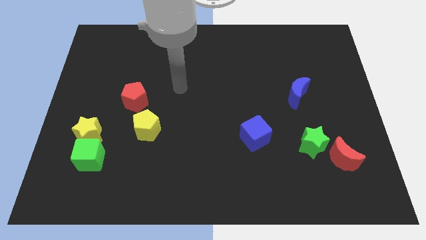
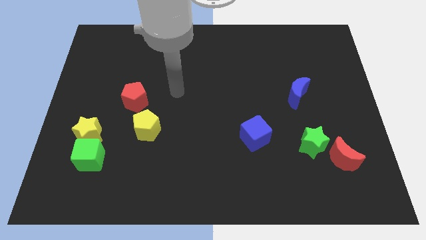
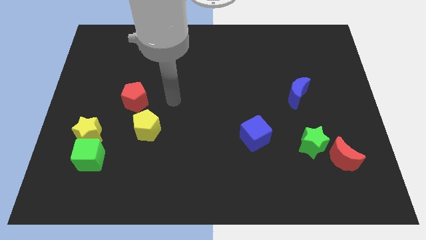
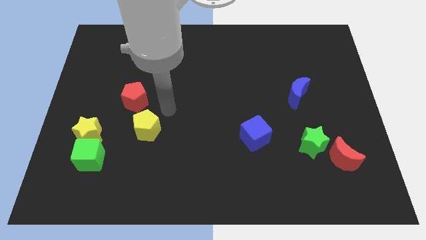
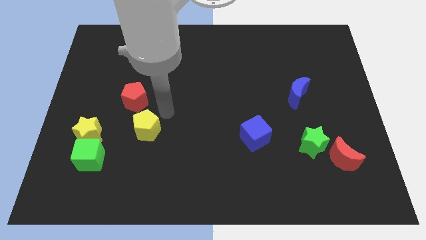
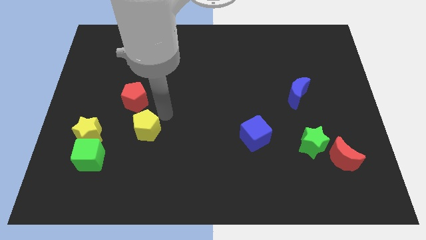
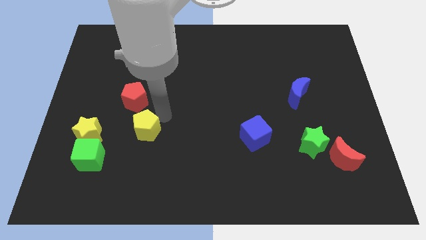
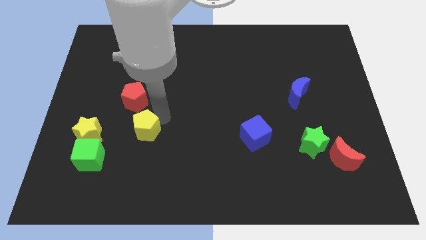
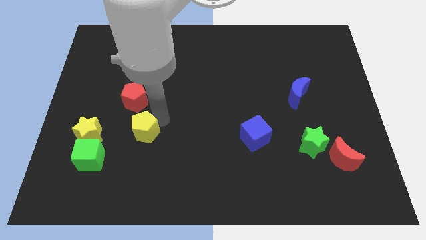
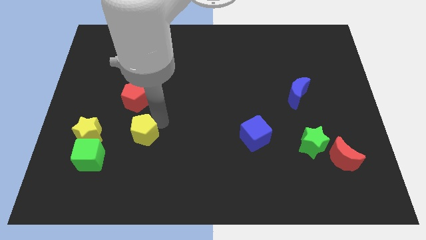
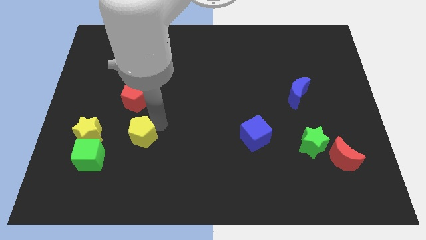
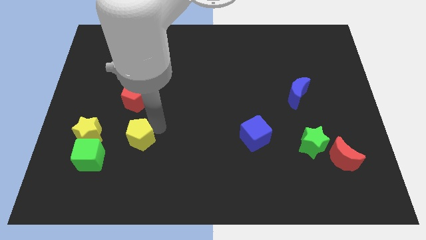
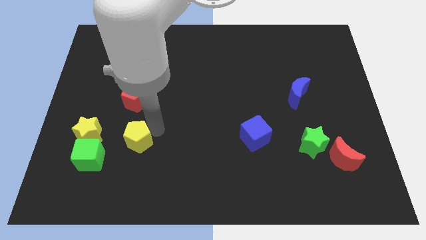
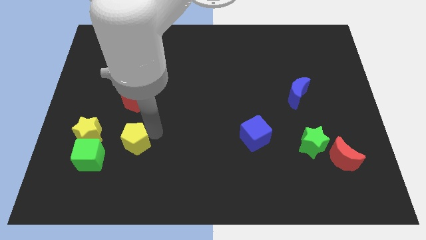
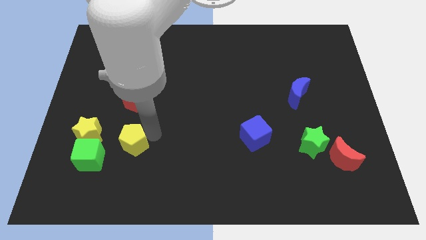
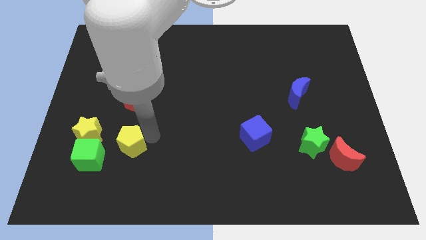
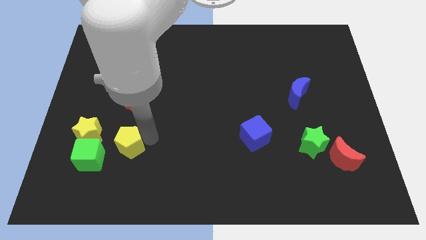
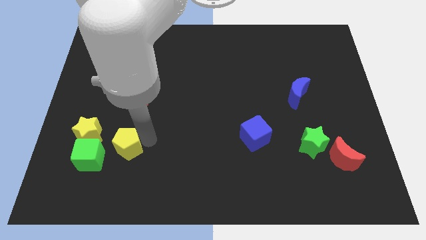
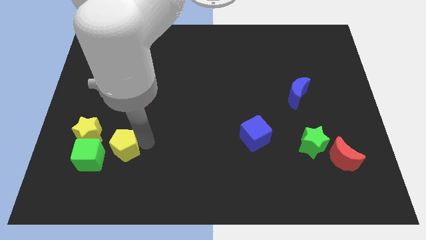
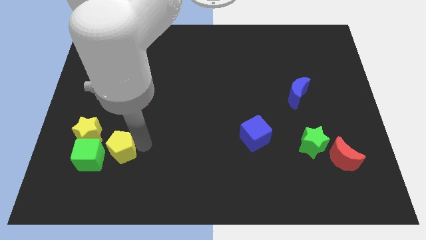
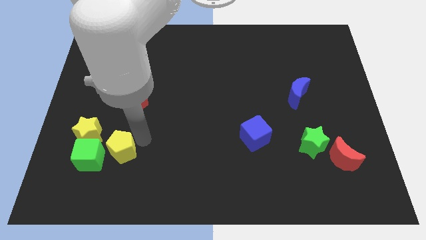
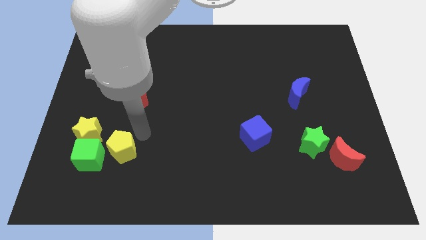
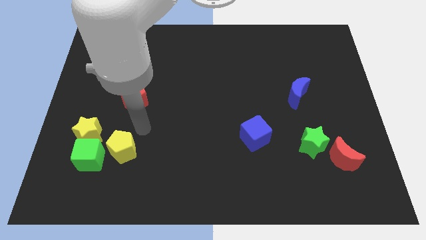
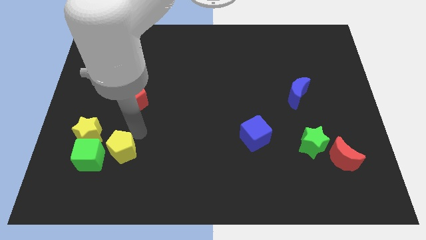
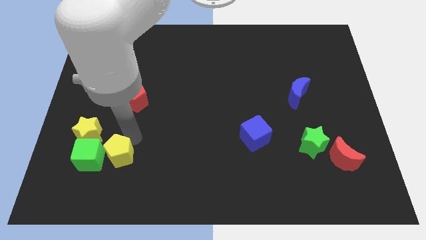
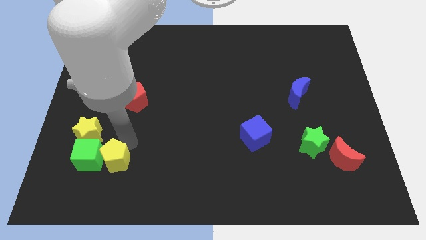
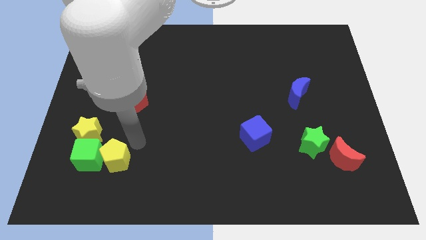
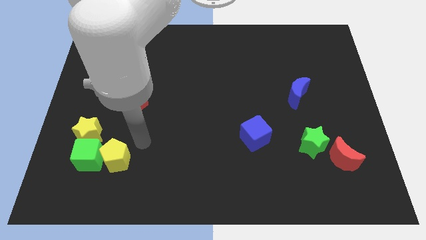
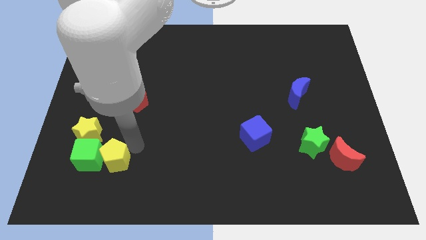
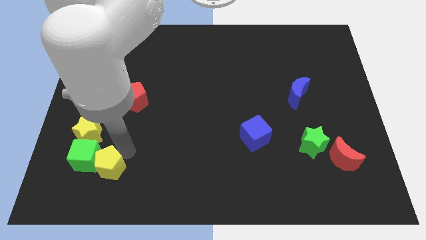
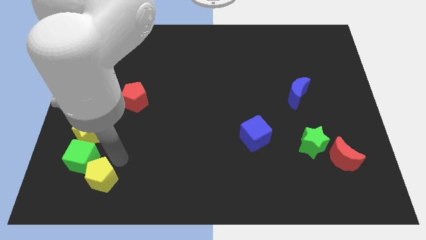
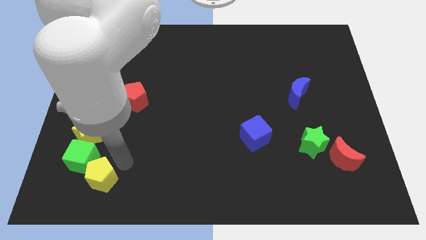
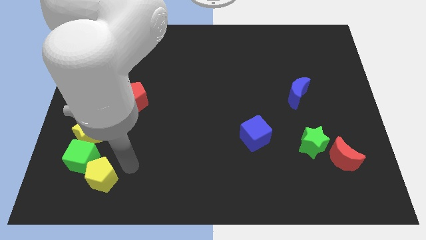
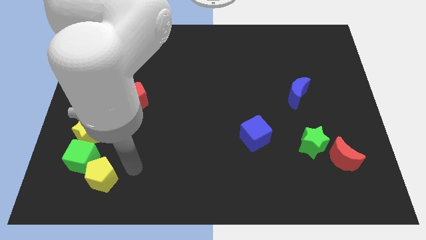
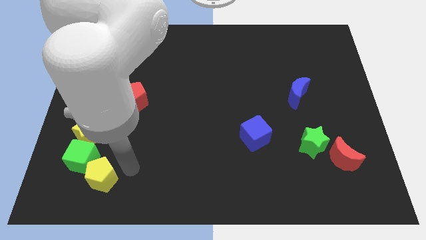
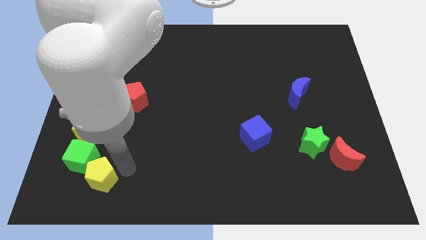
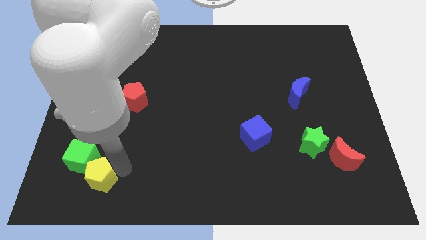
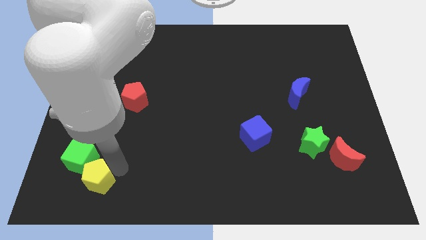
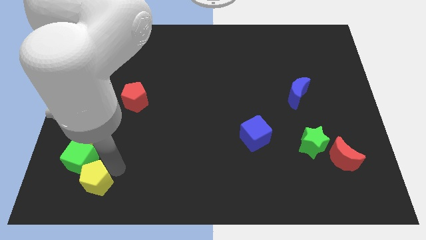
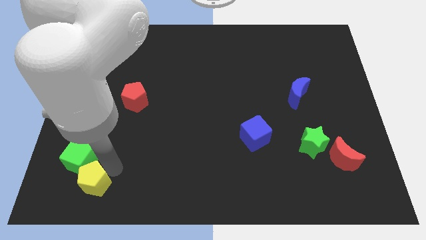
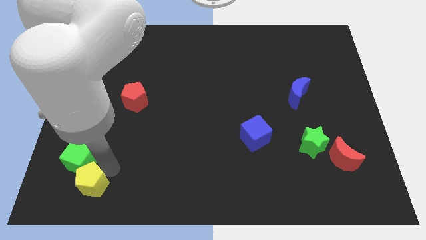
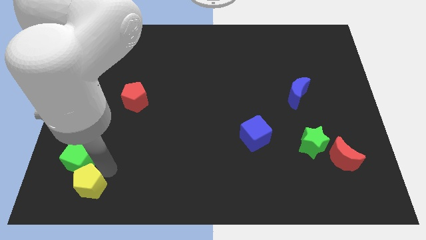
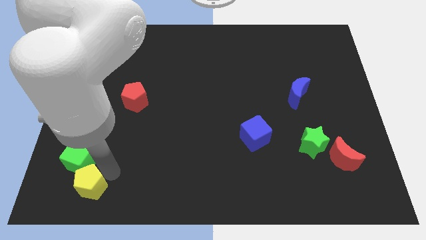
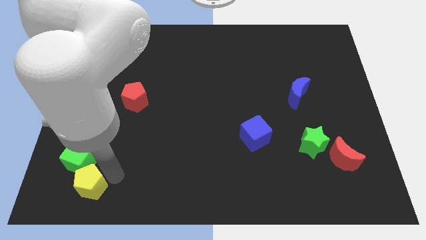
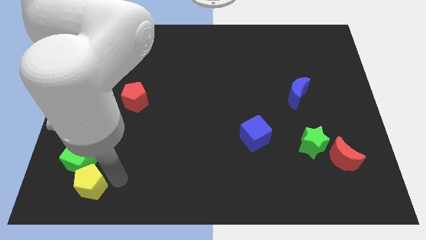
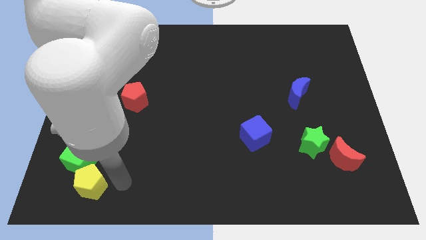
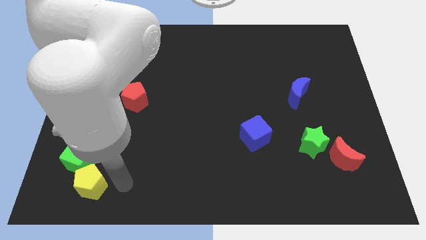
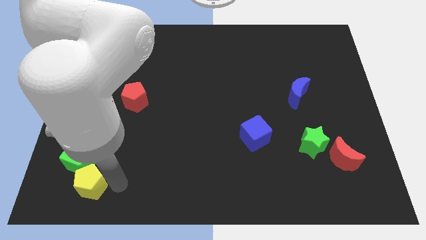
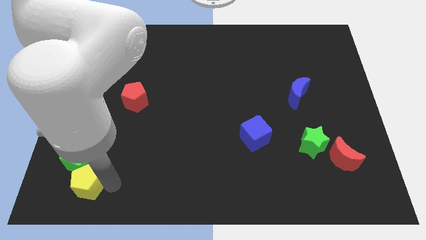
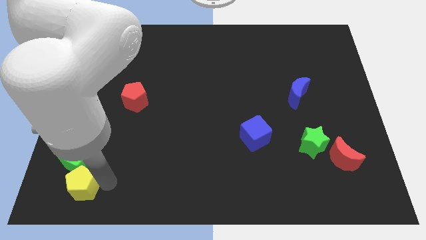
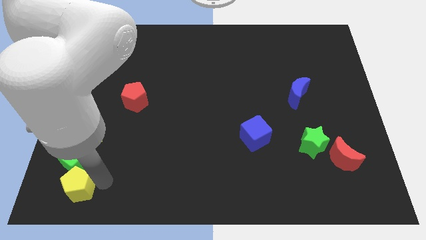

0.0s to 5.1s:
move the yellow pentagon to the bottom left corner

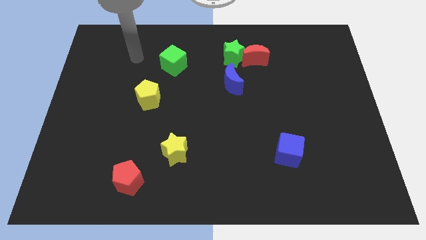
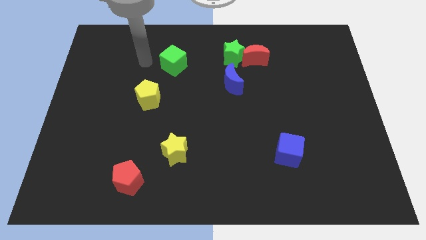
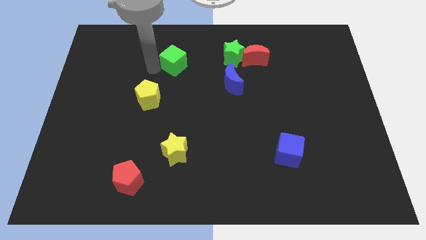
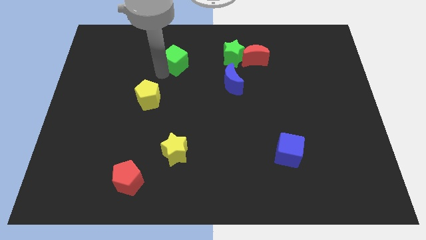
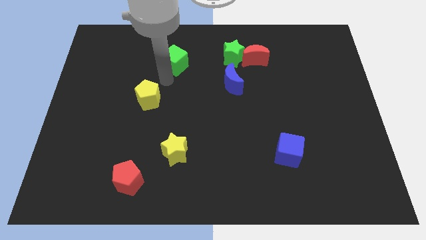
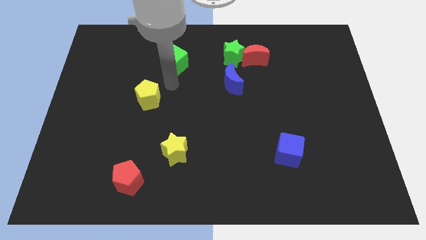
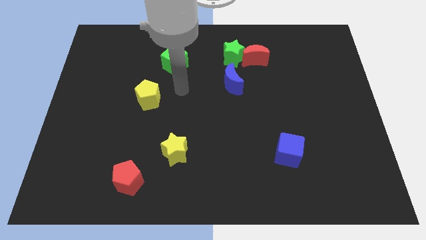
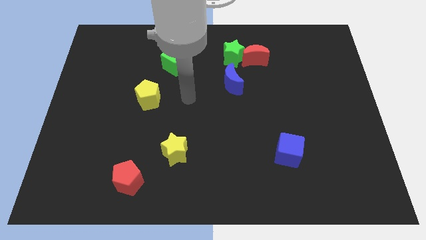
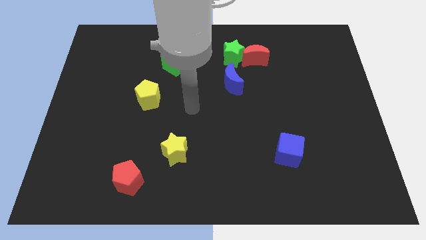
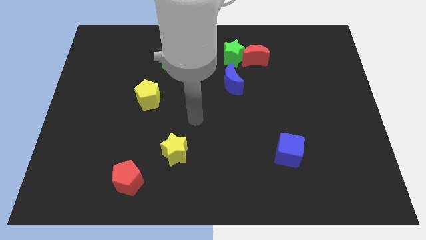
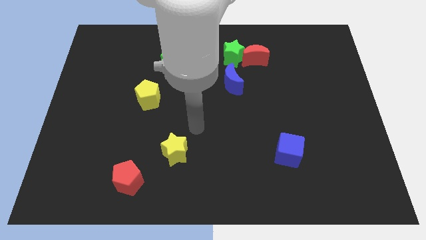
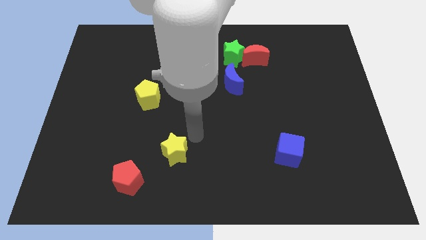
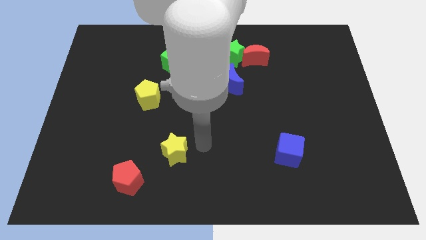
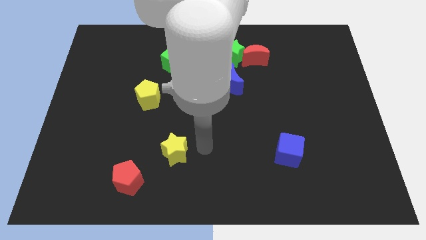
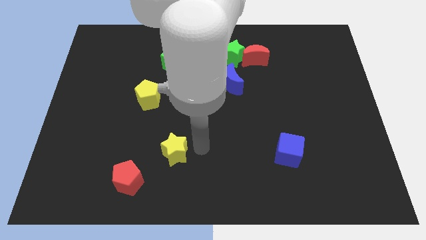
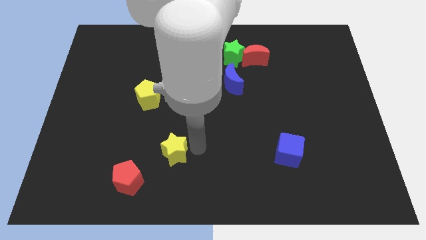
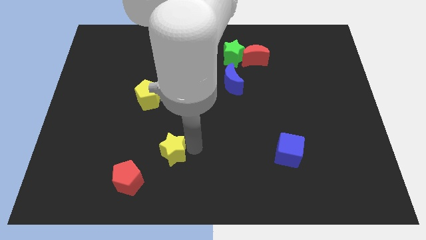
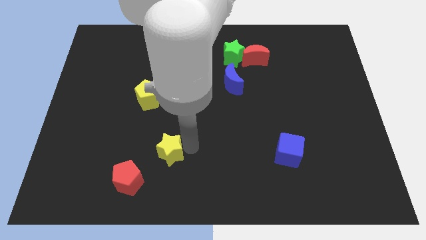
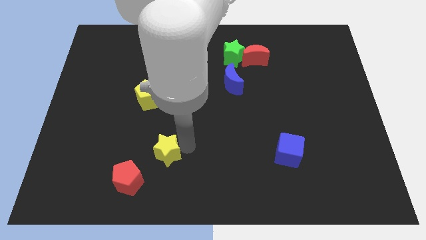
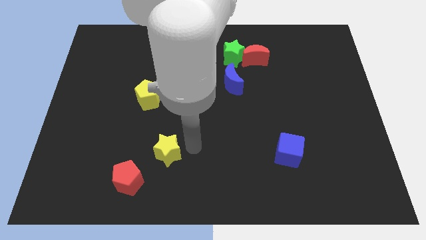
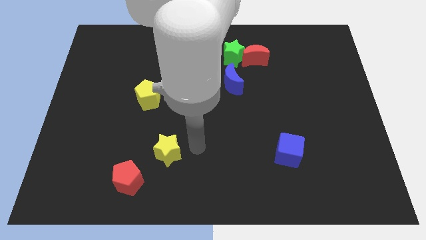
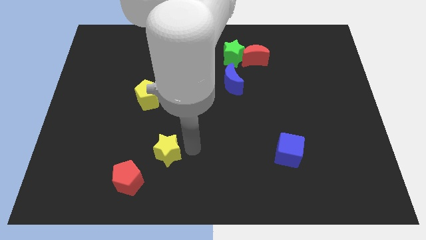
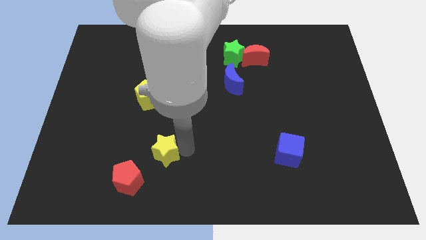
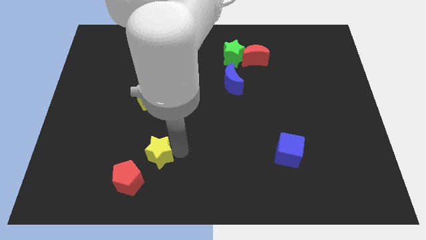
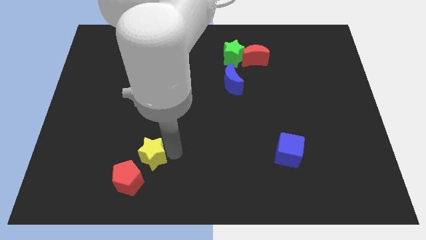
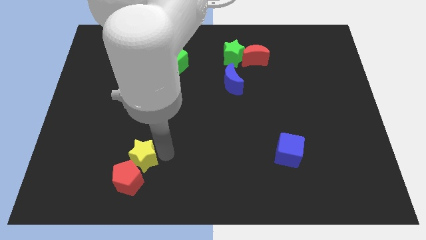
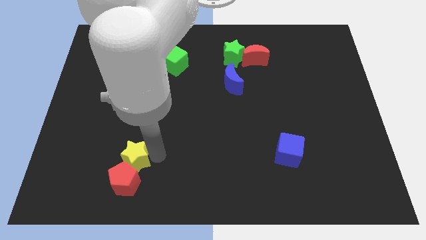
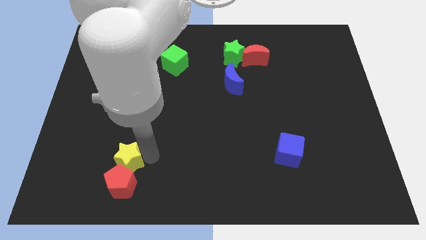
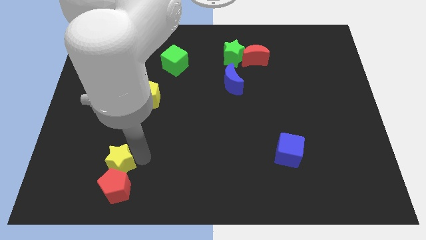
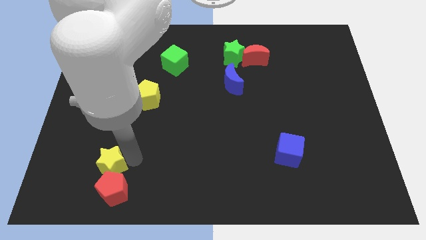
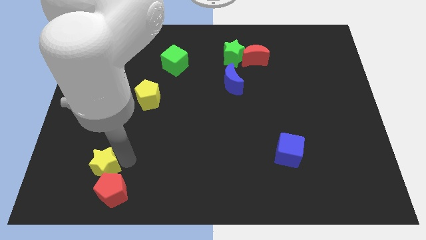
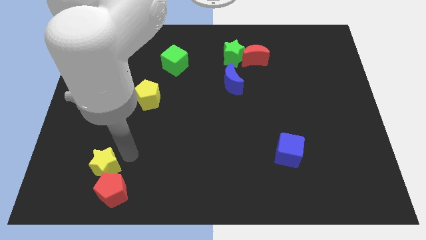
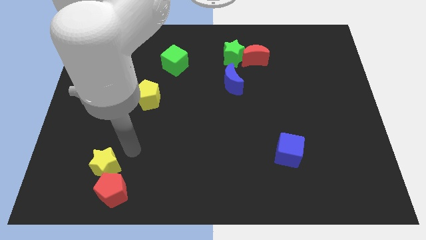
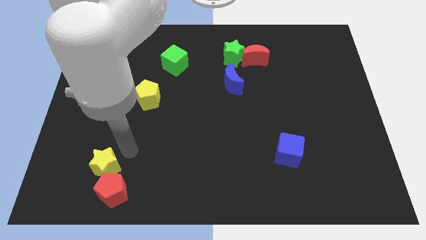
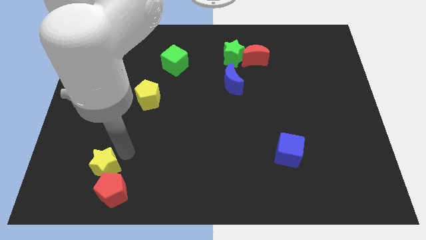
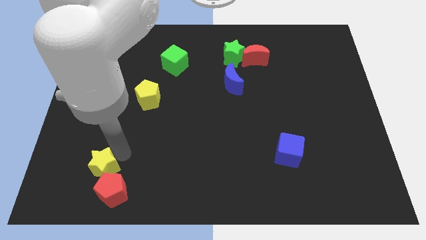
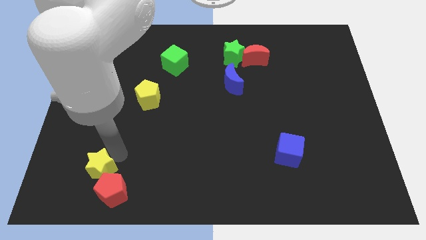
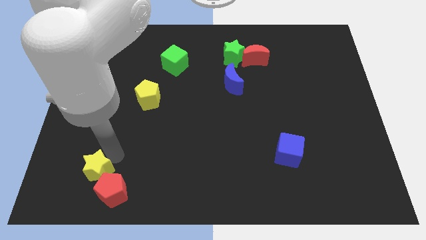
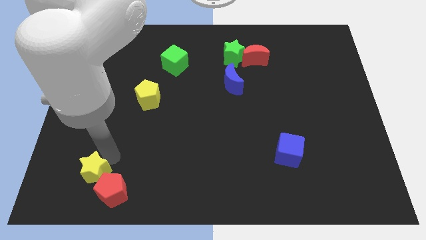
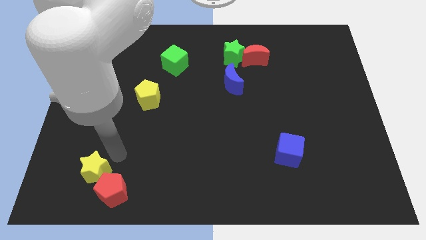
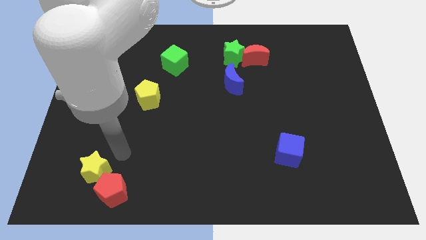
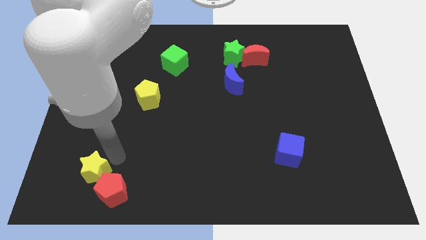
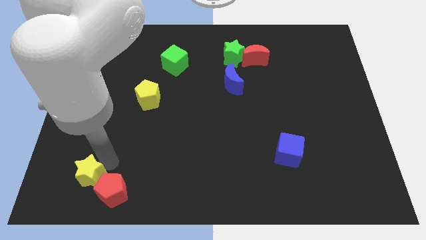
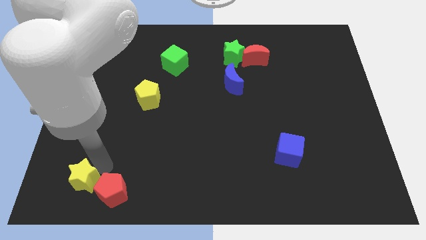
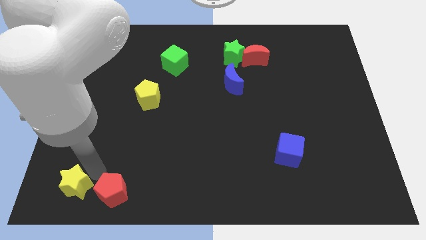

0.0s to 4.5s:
push the yellow star to the bottom left
